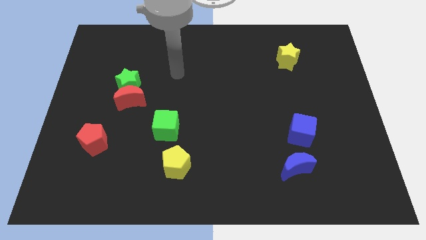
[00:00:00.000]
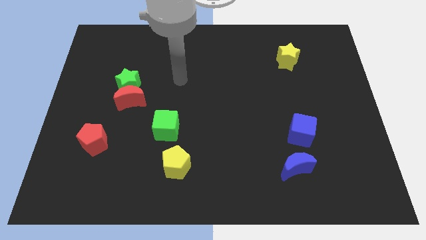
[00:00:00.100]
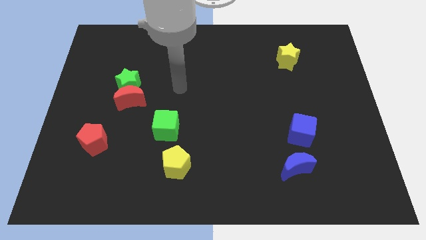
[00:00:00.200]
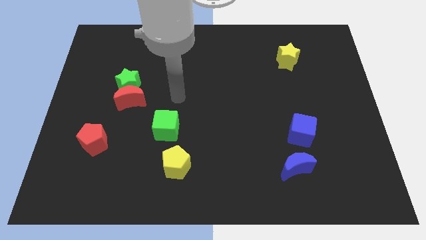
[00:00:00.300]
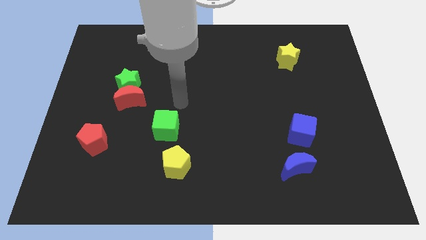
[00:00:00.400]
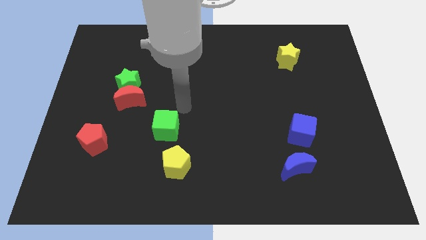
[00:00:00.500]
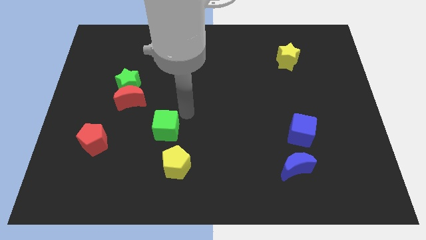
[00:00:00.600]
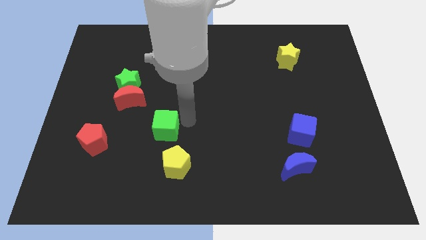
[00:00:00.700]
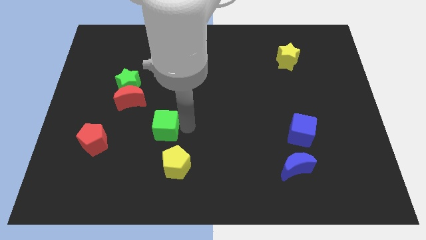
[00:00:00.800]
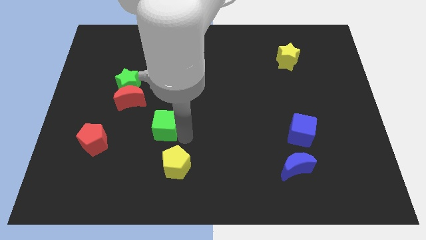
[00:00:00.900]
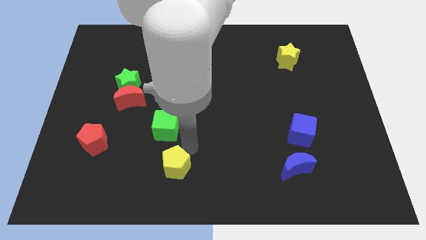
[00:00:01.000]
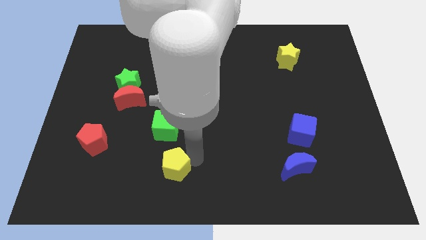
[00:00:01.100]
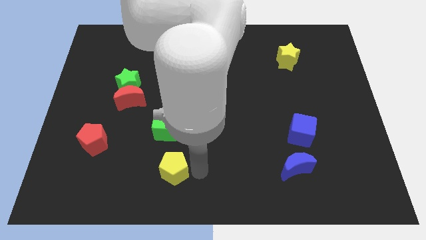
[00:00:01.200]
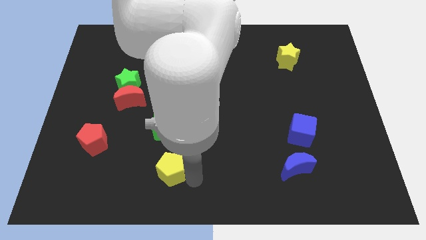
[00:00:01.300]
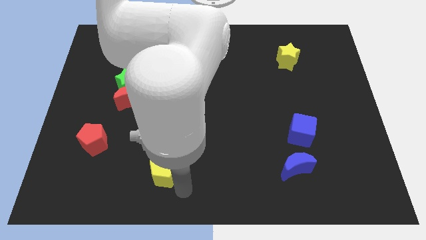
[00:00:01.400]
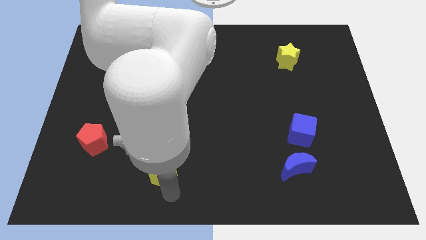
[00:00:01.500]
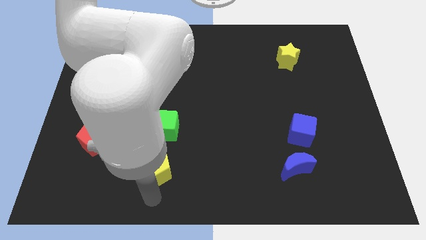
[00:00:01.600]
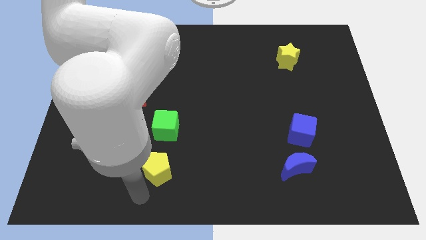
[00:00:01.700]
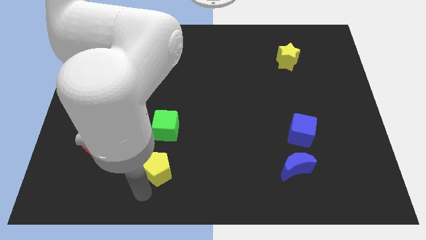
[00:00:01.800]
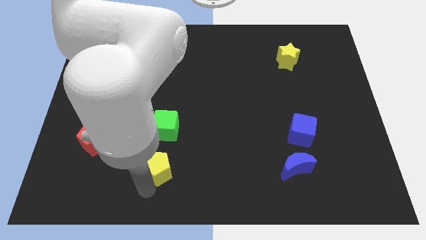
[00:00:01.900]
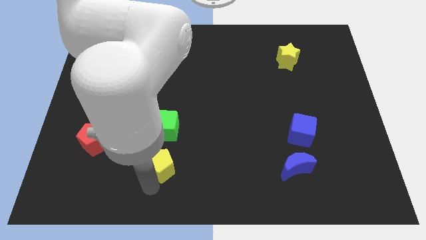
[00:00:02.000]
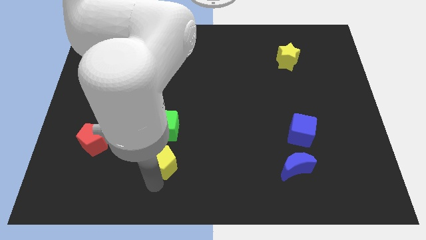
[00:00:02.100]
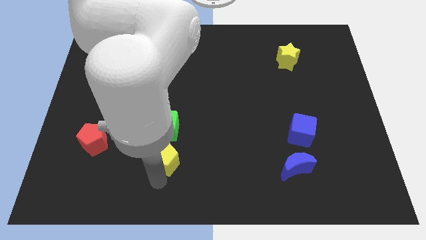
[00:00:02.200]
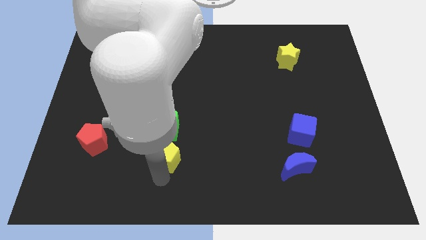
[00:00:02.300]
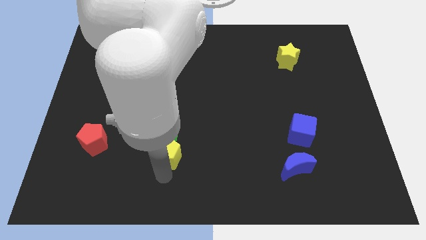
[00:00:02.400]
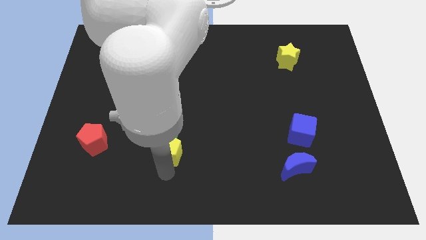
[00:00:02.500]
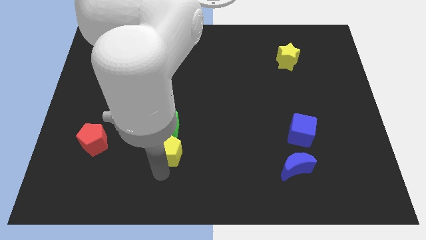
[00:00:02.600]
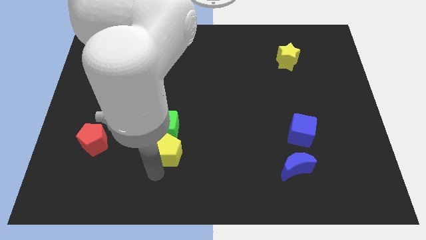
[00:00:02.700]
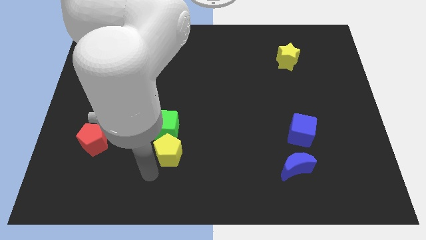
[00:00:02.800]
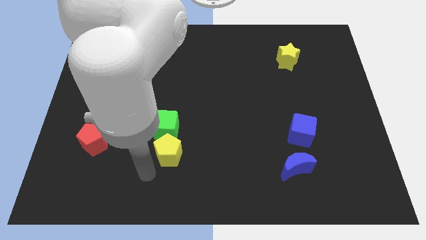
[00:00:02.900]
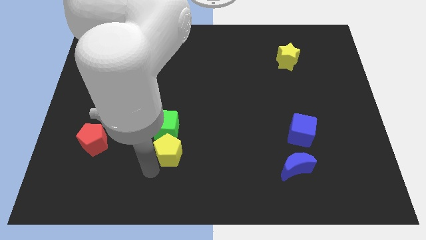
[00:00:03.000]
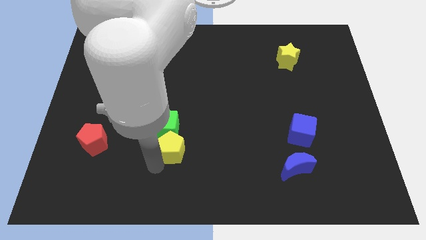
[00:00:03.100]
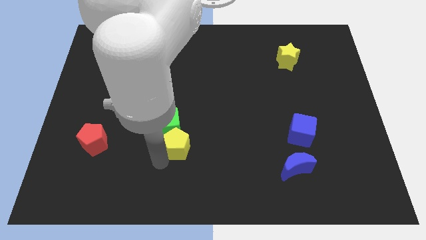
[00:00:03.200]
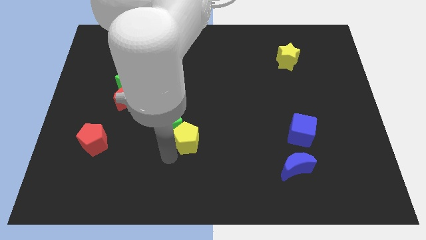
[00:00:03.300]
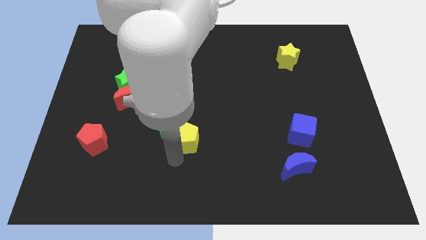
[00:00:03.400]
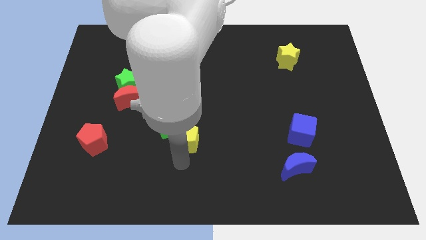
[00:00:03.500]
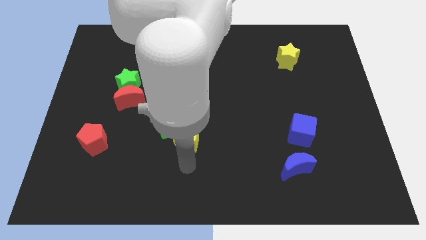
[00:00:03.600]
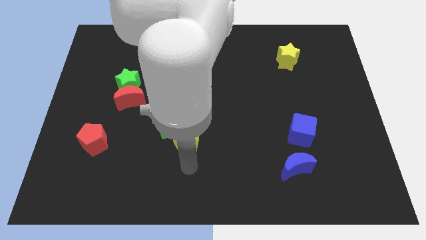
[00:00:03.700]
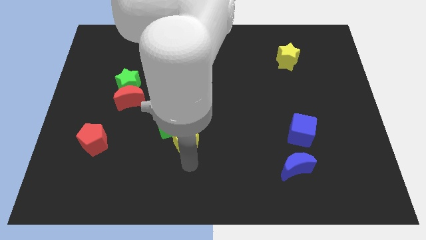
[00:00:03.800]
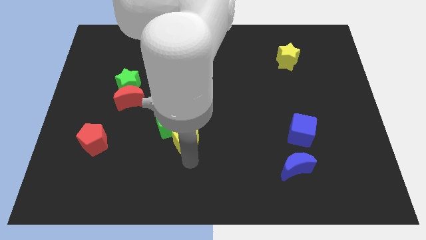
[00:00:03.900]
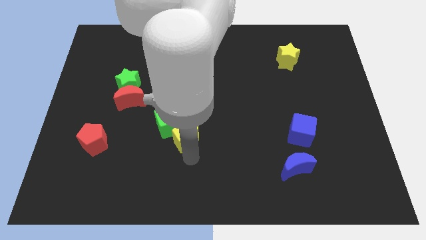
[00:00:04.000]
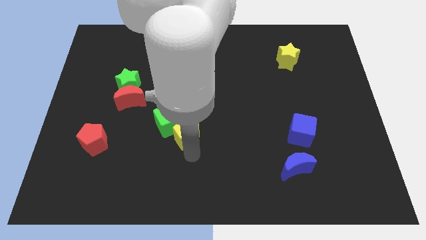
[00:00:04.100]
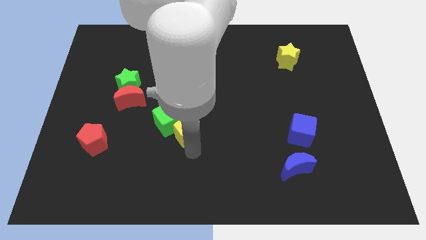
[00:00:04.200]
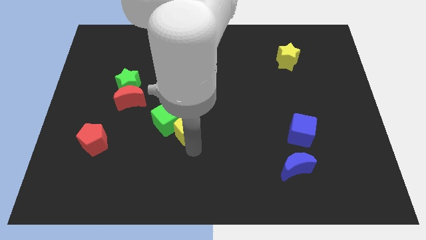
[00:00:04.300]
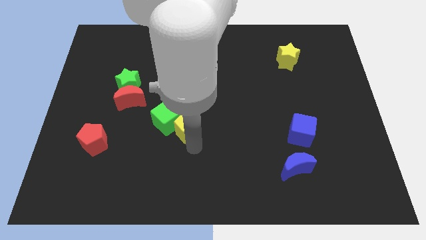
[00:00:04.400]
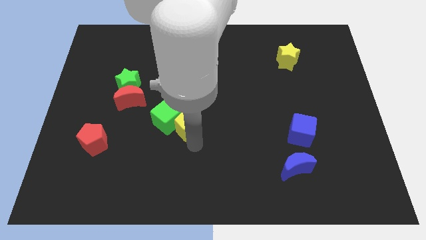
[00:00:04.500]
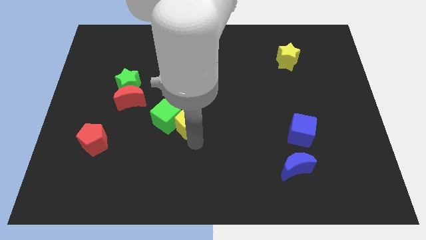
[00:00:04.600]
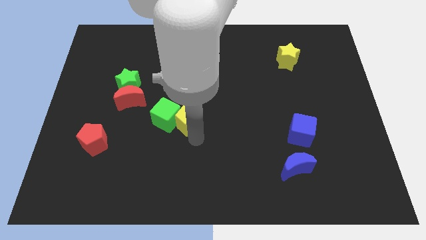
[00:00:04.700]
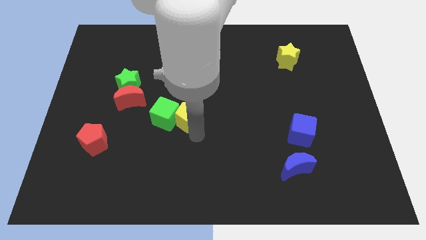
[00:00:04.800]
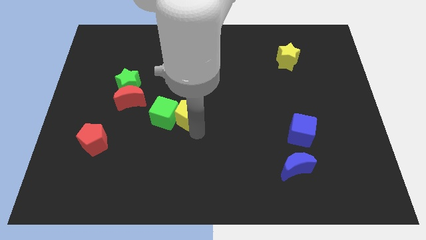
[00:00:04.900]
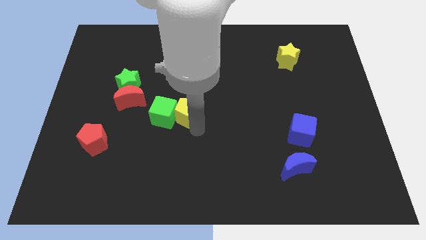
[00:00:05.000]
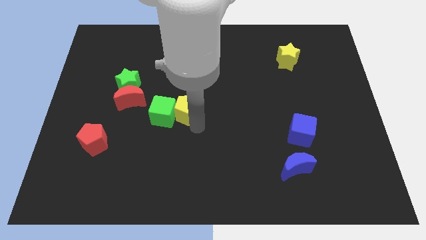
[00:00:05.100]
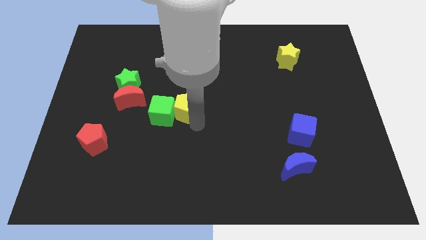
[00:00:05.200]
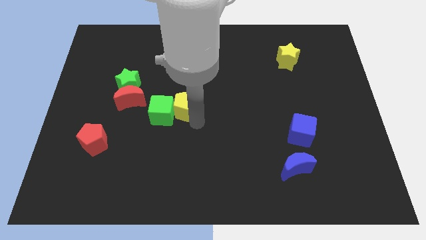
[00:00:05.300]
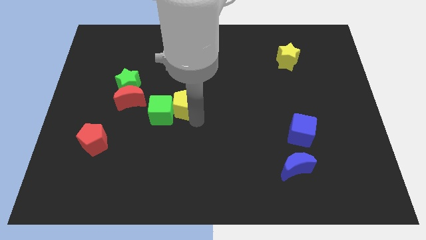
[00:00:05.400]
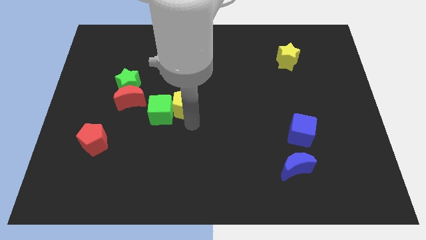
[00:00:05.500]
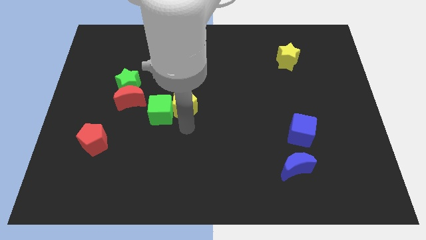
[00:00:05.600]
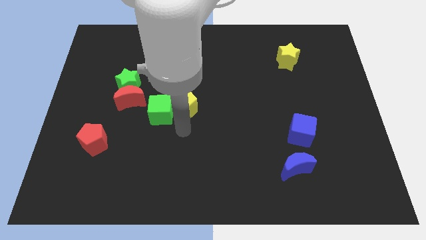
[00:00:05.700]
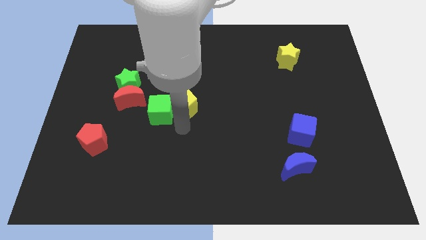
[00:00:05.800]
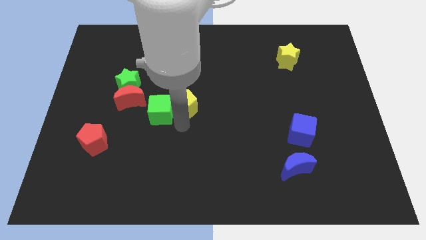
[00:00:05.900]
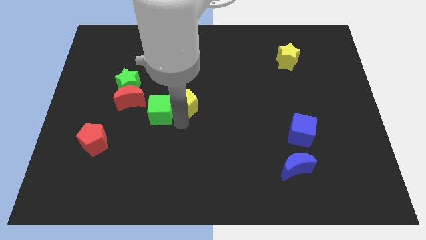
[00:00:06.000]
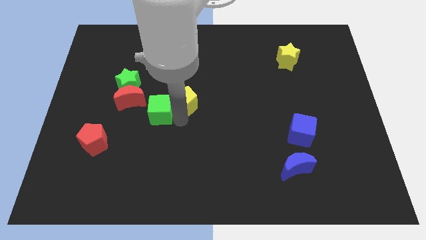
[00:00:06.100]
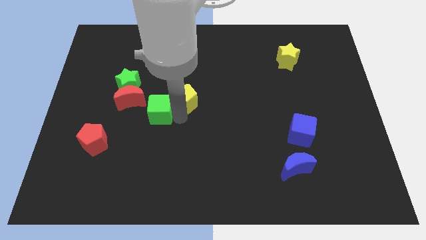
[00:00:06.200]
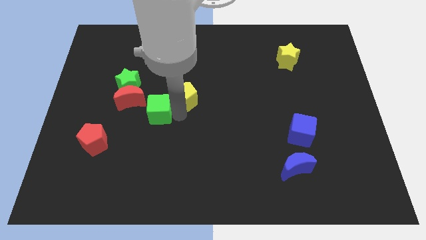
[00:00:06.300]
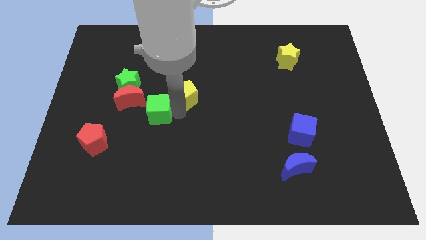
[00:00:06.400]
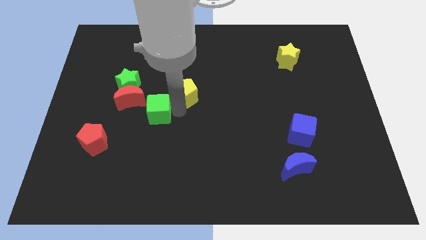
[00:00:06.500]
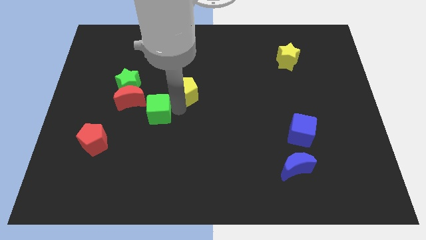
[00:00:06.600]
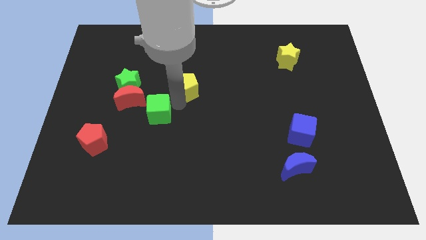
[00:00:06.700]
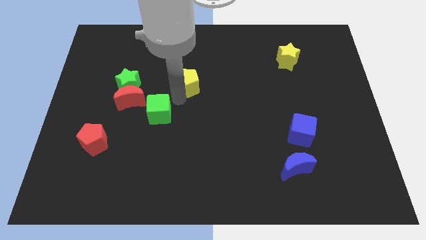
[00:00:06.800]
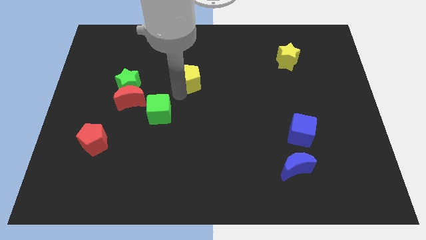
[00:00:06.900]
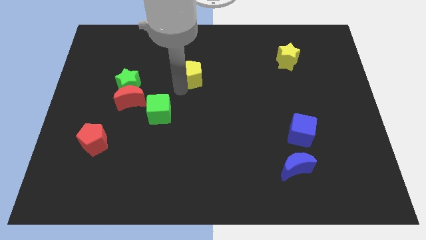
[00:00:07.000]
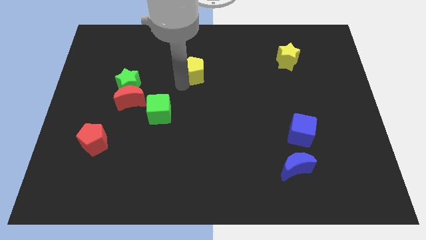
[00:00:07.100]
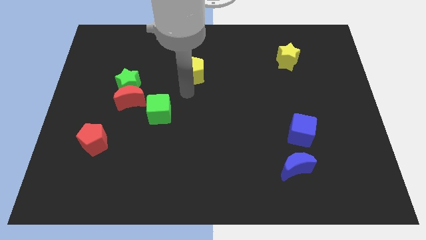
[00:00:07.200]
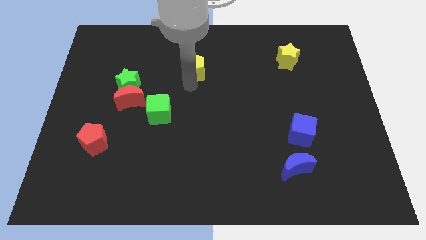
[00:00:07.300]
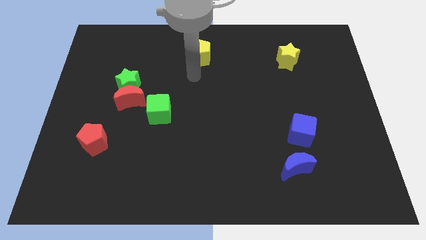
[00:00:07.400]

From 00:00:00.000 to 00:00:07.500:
put the yellow pentagon to the top
